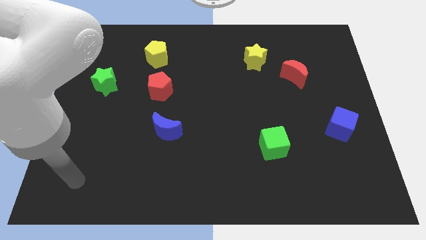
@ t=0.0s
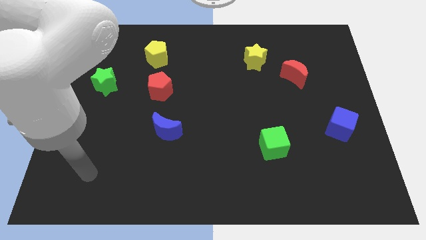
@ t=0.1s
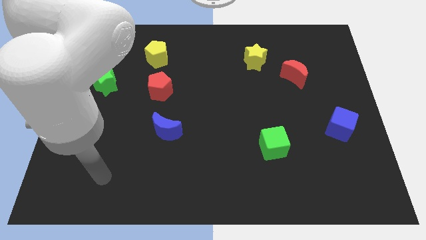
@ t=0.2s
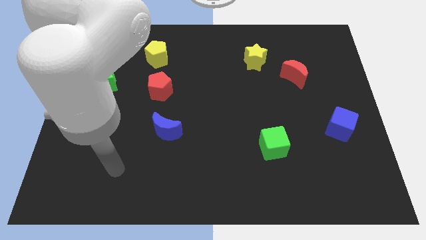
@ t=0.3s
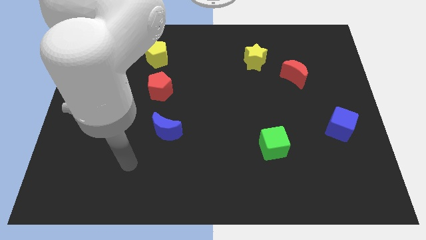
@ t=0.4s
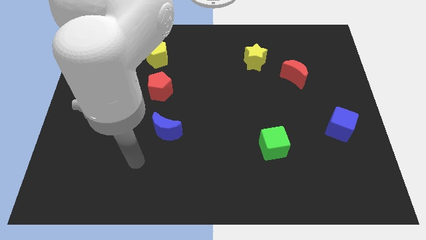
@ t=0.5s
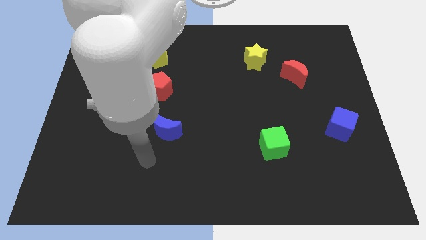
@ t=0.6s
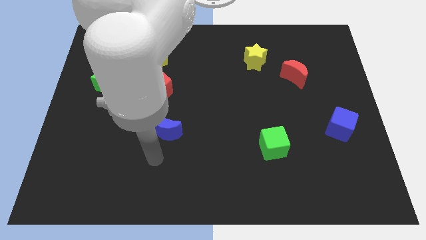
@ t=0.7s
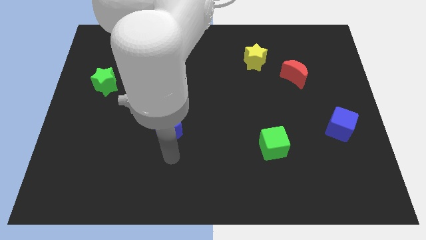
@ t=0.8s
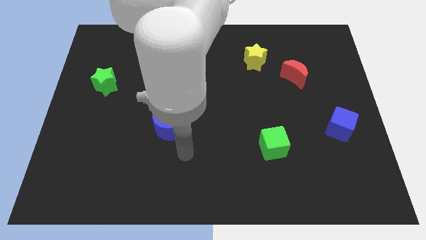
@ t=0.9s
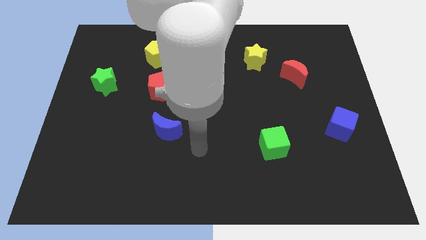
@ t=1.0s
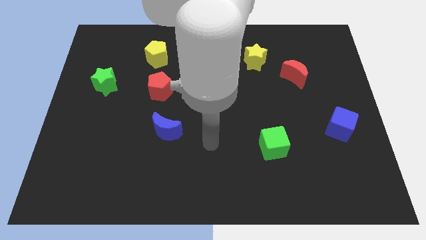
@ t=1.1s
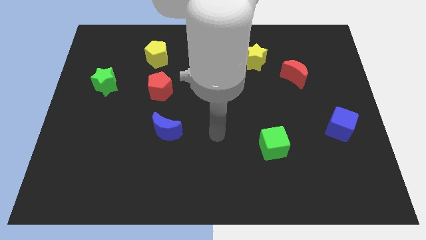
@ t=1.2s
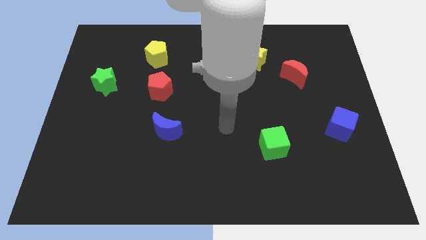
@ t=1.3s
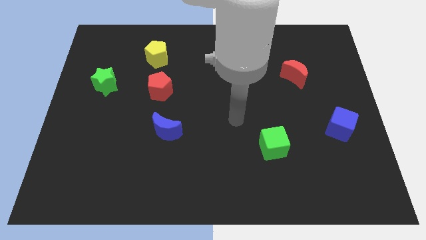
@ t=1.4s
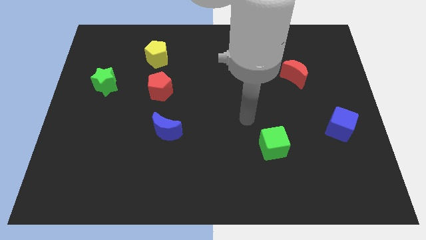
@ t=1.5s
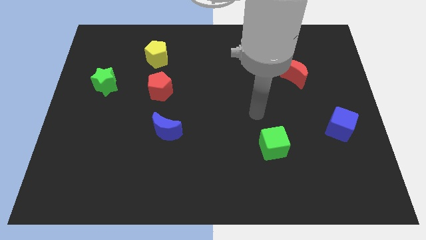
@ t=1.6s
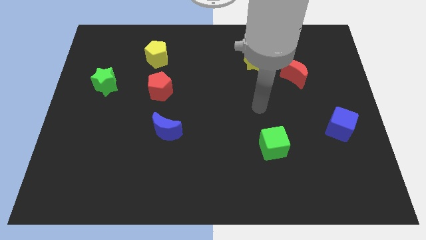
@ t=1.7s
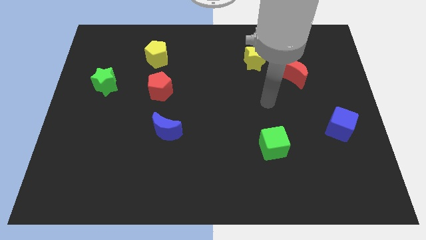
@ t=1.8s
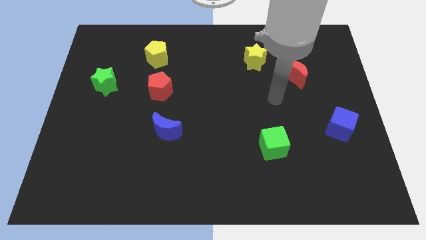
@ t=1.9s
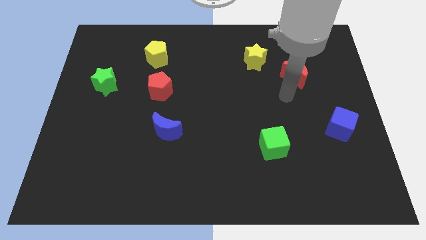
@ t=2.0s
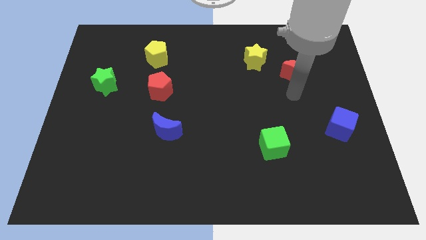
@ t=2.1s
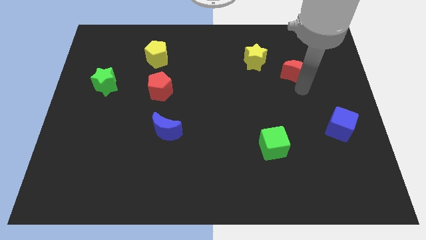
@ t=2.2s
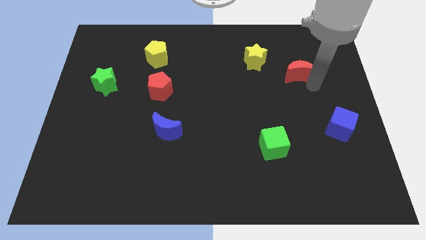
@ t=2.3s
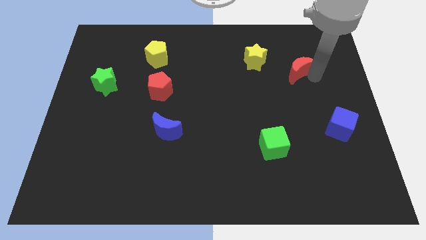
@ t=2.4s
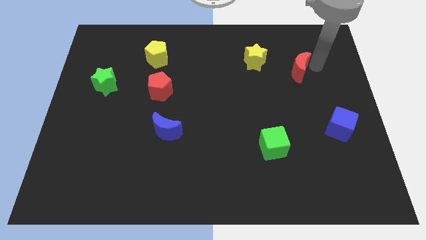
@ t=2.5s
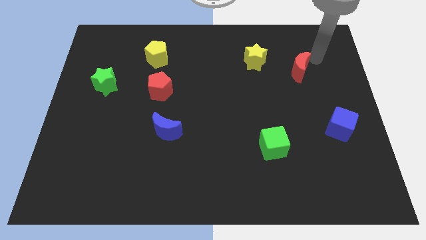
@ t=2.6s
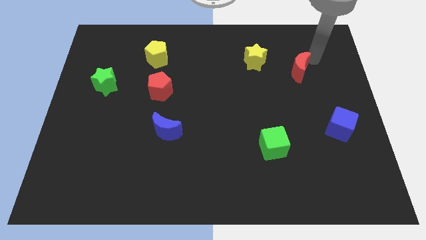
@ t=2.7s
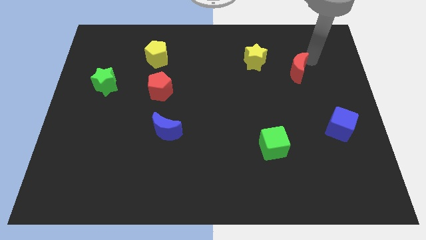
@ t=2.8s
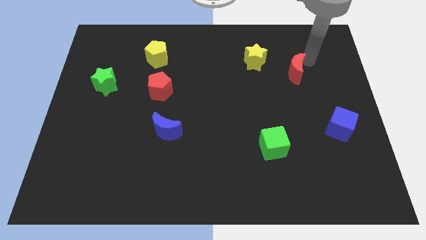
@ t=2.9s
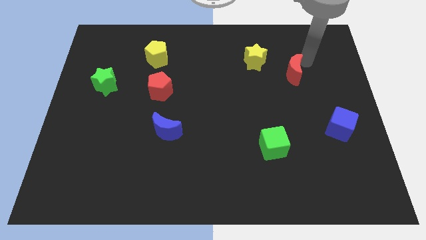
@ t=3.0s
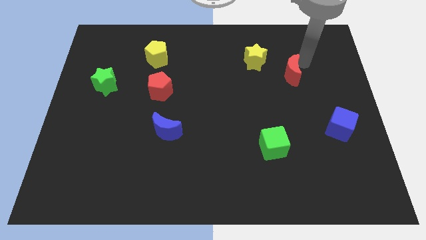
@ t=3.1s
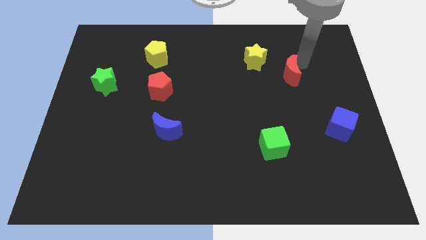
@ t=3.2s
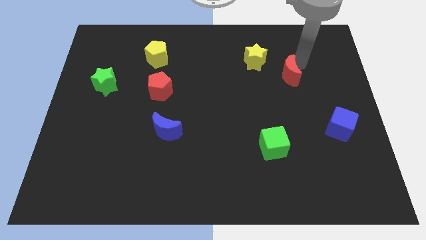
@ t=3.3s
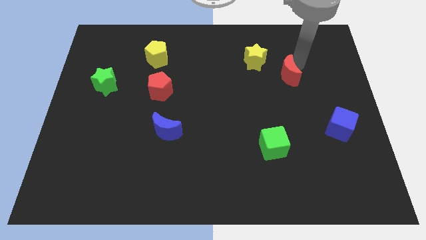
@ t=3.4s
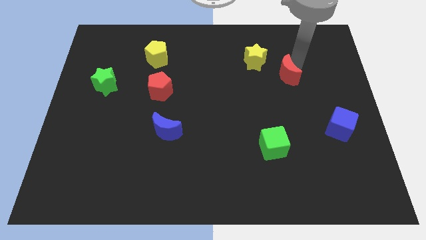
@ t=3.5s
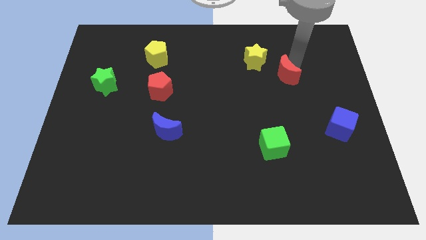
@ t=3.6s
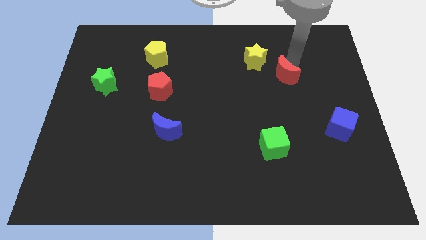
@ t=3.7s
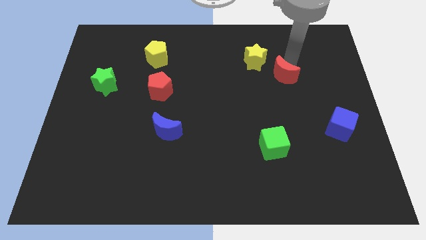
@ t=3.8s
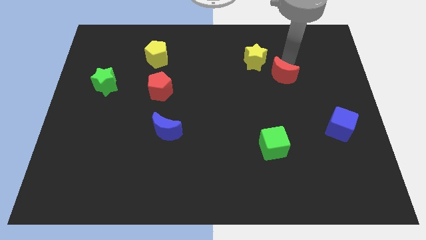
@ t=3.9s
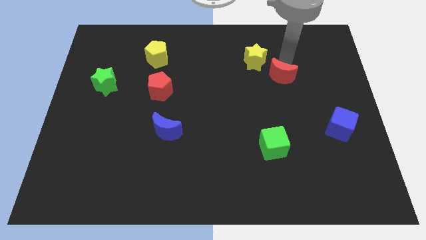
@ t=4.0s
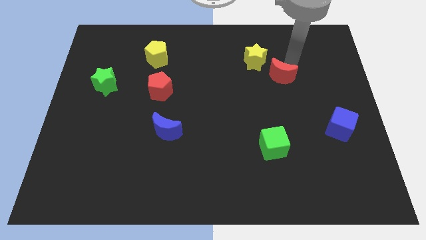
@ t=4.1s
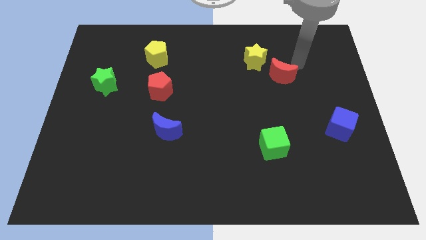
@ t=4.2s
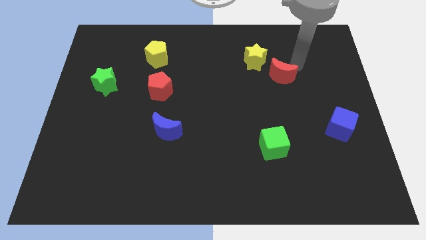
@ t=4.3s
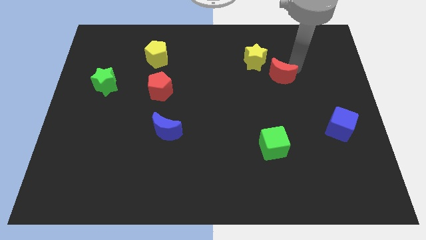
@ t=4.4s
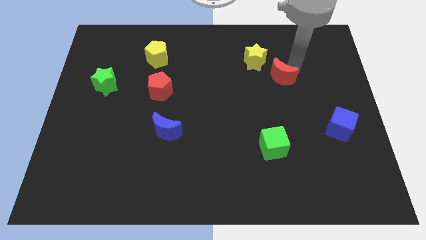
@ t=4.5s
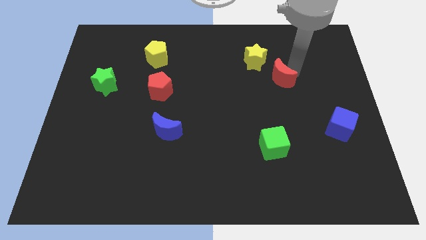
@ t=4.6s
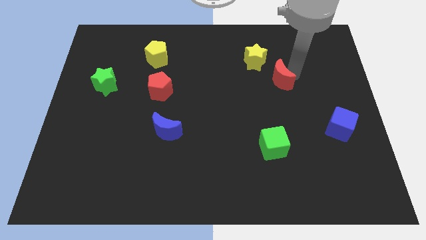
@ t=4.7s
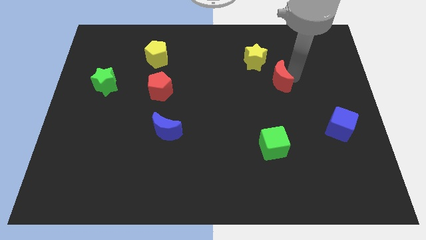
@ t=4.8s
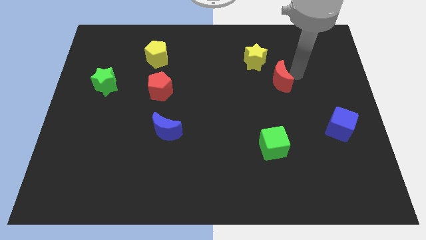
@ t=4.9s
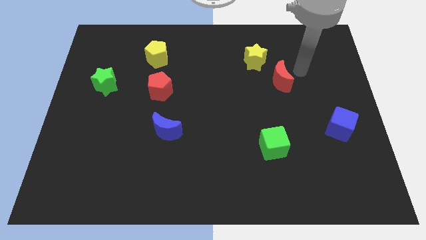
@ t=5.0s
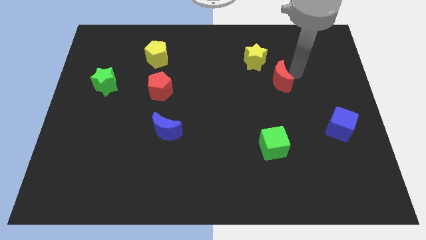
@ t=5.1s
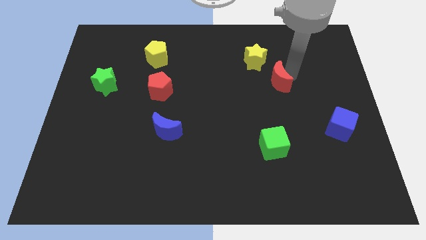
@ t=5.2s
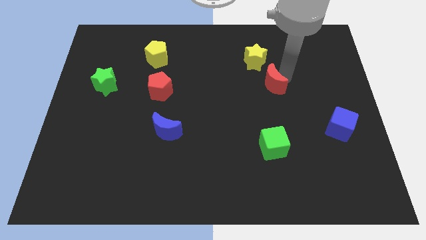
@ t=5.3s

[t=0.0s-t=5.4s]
slide the red moon to the bottom side of the yellow star

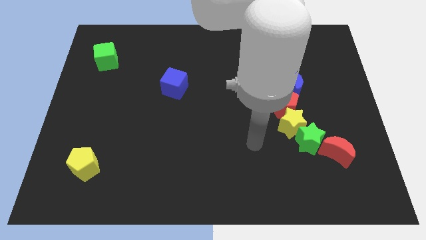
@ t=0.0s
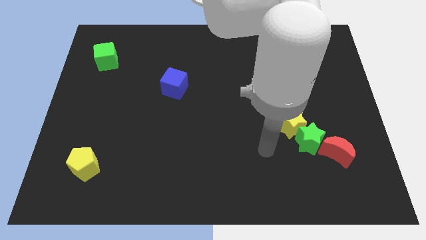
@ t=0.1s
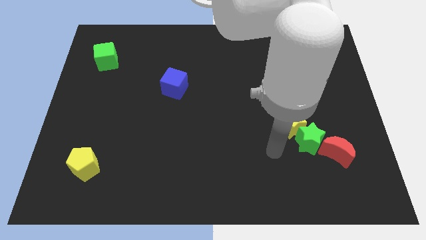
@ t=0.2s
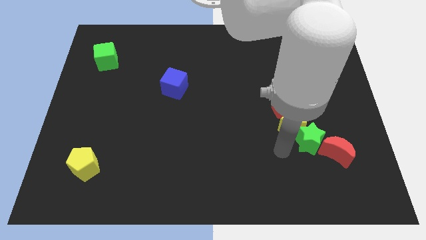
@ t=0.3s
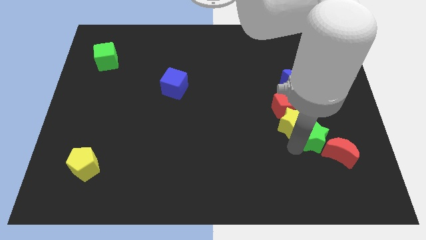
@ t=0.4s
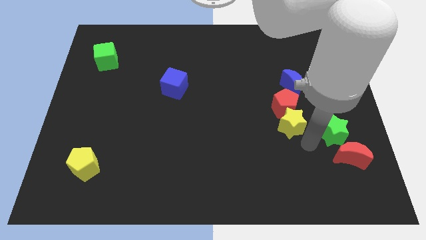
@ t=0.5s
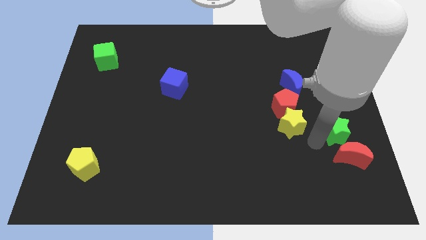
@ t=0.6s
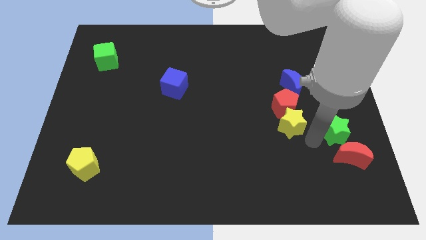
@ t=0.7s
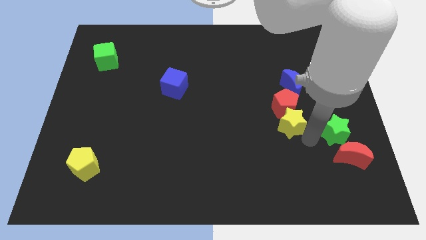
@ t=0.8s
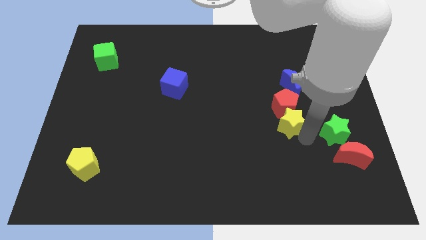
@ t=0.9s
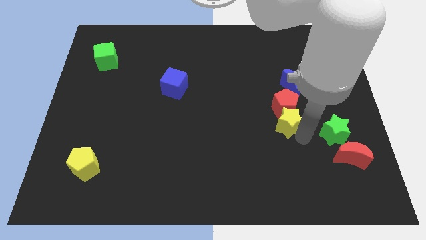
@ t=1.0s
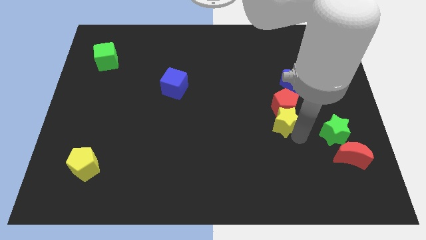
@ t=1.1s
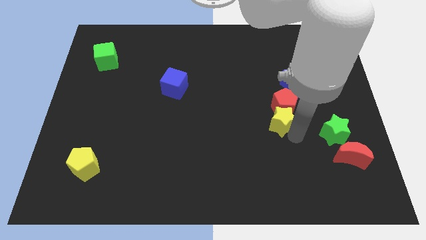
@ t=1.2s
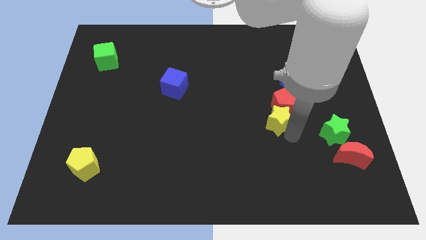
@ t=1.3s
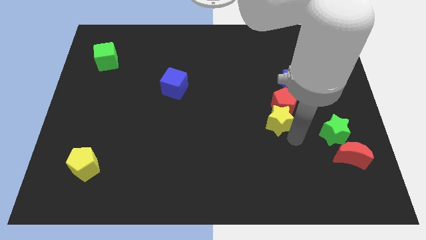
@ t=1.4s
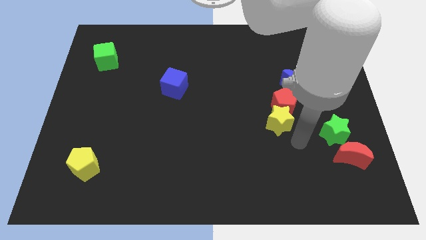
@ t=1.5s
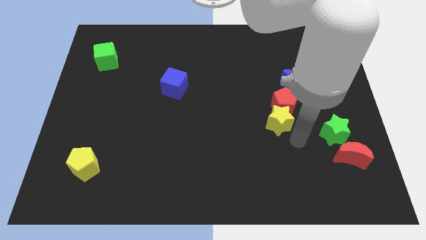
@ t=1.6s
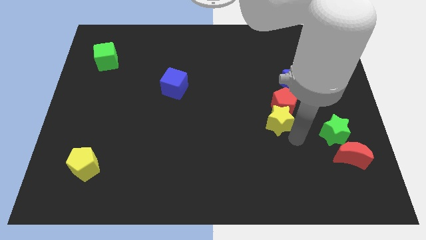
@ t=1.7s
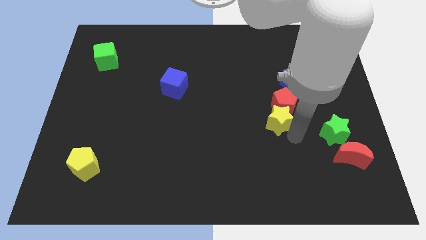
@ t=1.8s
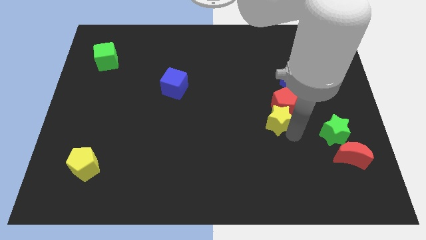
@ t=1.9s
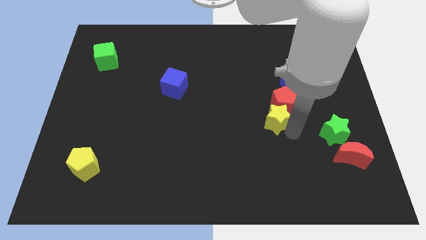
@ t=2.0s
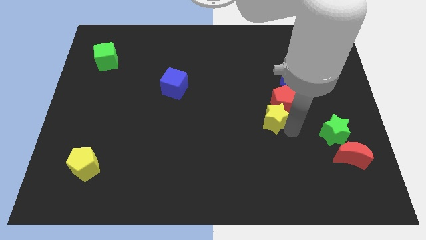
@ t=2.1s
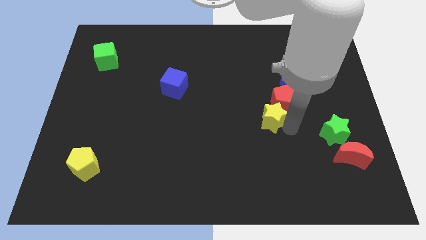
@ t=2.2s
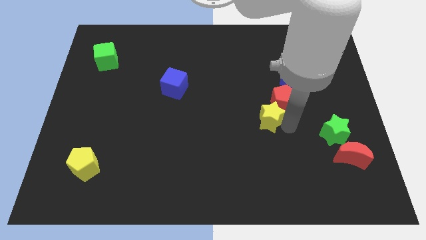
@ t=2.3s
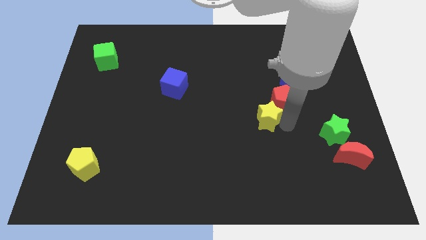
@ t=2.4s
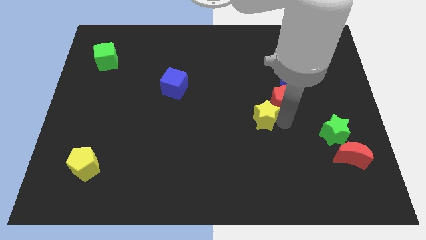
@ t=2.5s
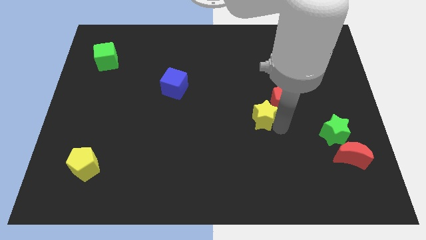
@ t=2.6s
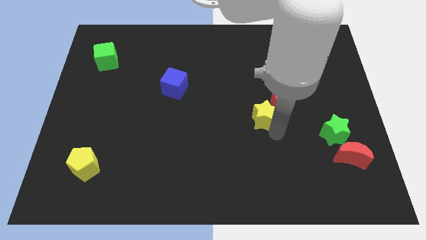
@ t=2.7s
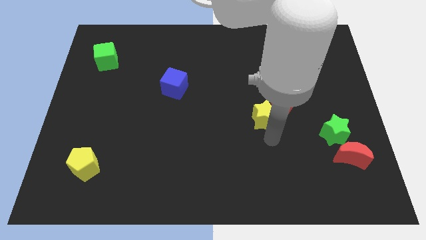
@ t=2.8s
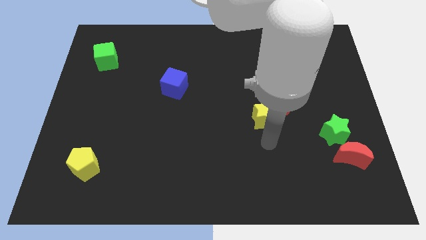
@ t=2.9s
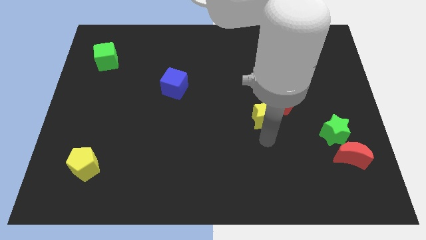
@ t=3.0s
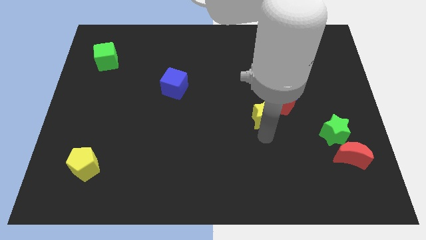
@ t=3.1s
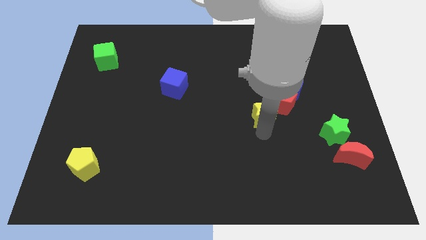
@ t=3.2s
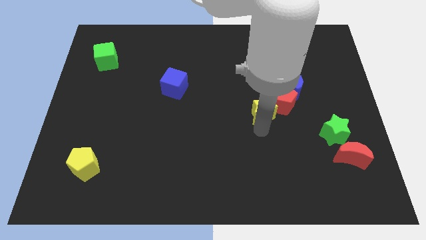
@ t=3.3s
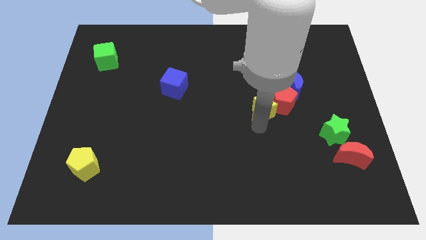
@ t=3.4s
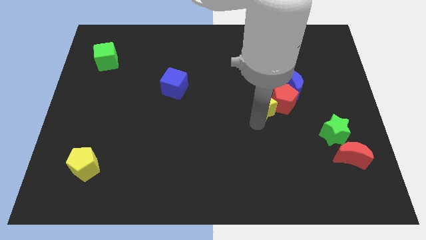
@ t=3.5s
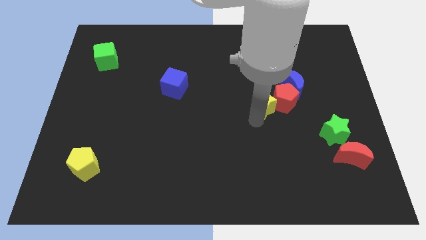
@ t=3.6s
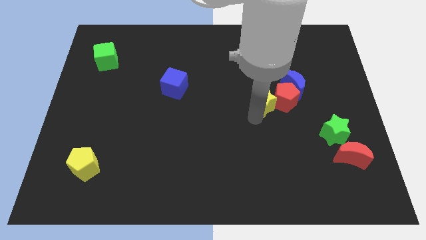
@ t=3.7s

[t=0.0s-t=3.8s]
slide the yellow star to the top left side of the red pentagon
